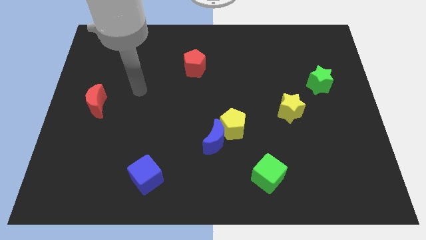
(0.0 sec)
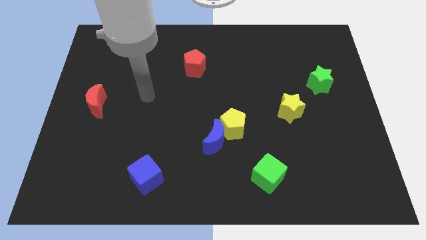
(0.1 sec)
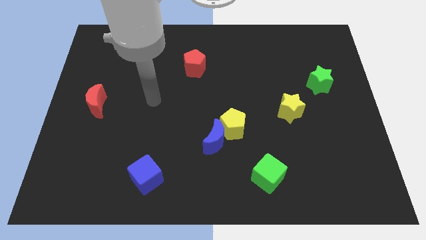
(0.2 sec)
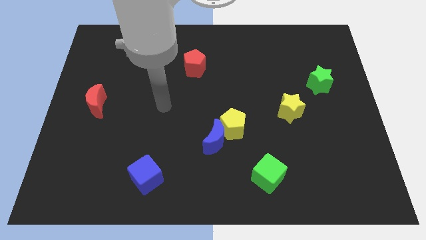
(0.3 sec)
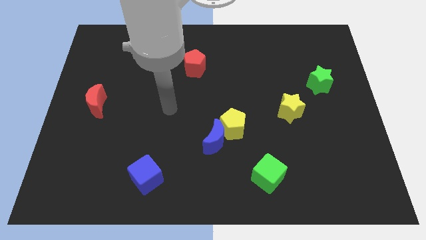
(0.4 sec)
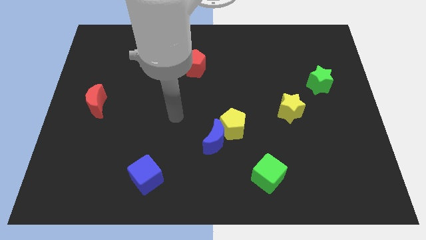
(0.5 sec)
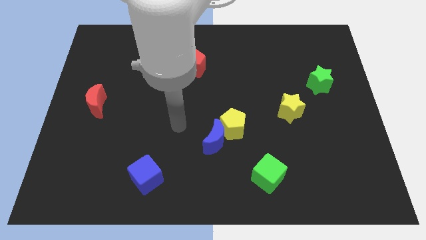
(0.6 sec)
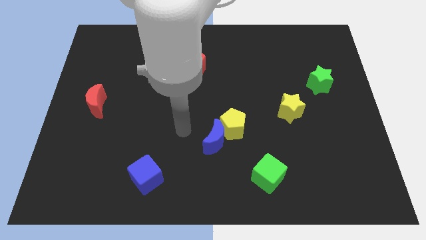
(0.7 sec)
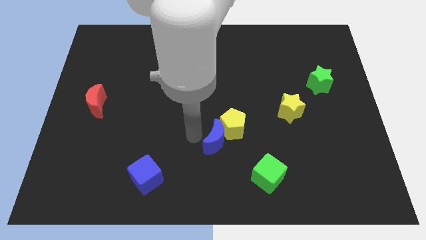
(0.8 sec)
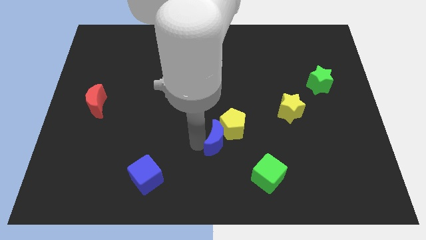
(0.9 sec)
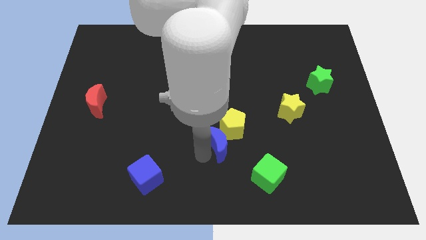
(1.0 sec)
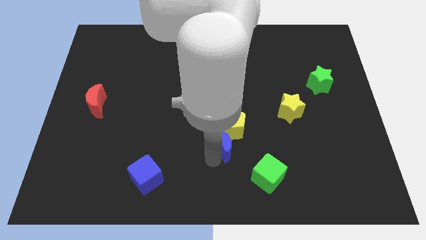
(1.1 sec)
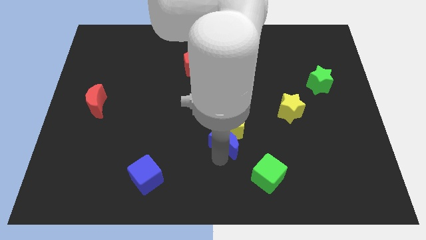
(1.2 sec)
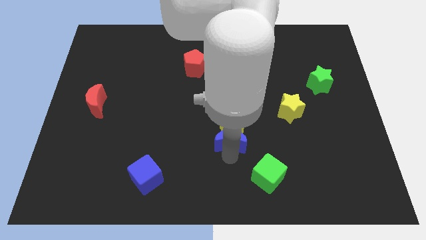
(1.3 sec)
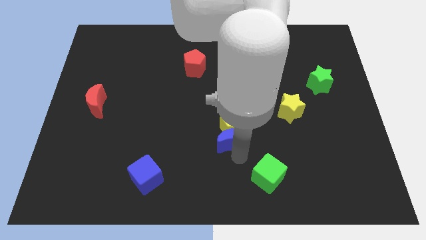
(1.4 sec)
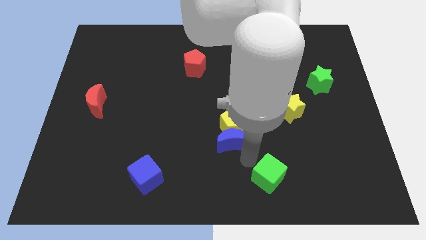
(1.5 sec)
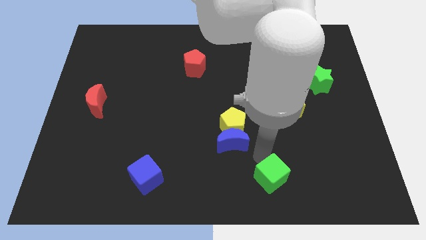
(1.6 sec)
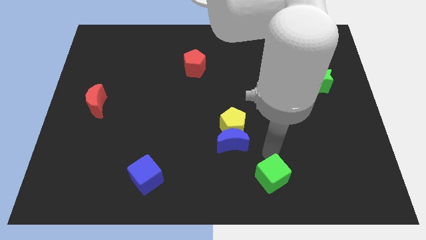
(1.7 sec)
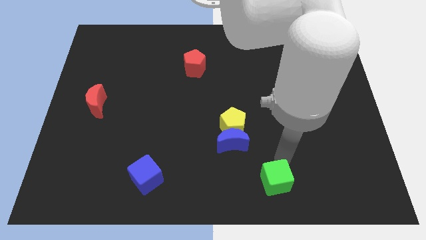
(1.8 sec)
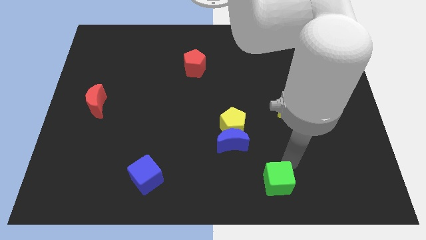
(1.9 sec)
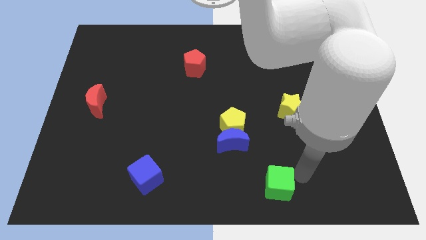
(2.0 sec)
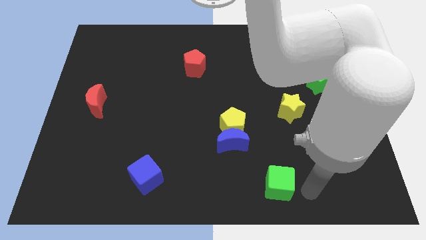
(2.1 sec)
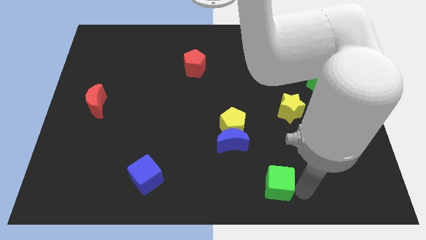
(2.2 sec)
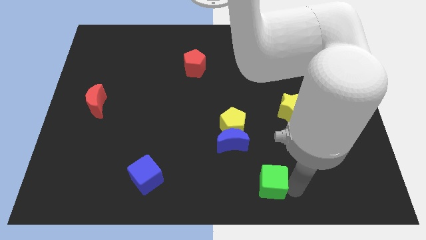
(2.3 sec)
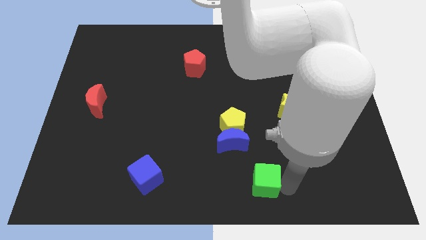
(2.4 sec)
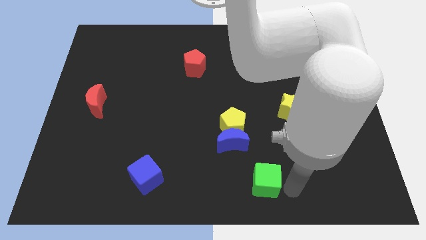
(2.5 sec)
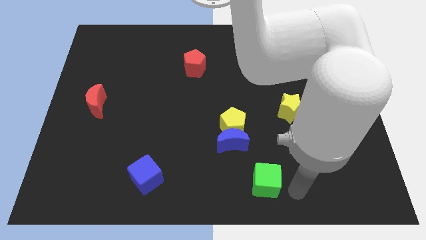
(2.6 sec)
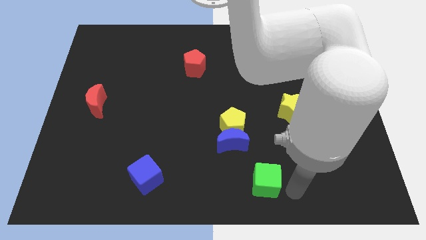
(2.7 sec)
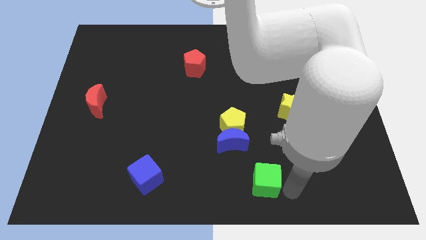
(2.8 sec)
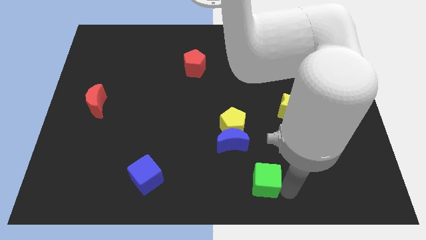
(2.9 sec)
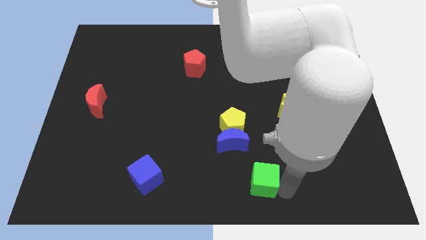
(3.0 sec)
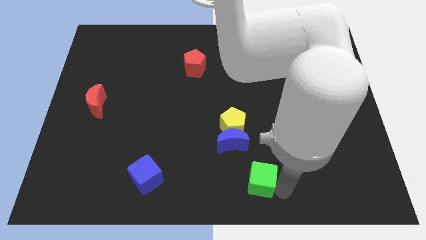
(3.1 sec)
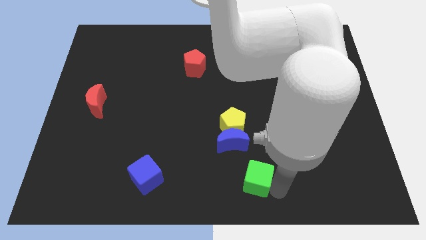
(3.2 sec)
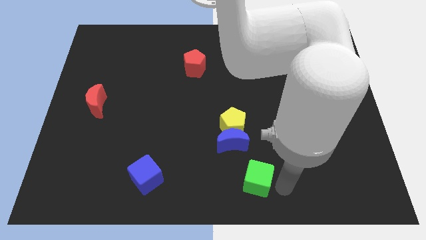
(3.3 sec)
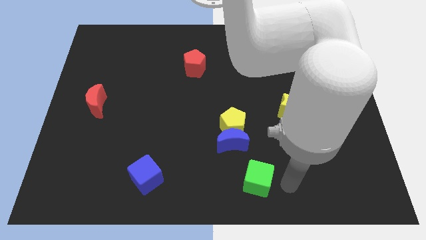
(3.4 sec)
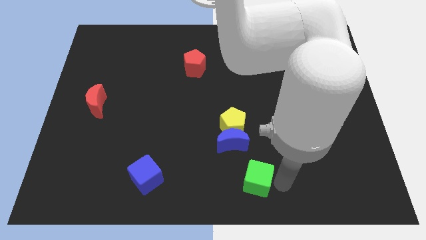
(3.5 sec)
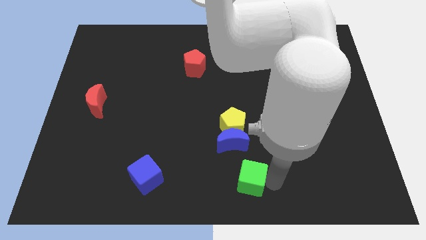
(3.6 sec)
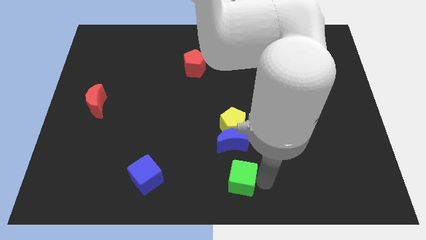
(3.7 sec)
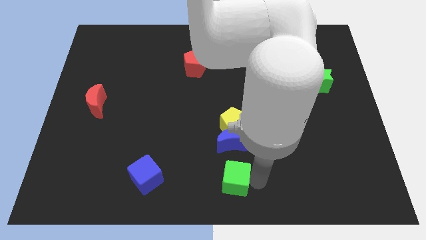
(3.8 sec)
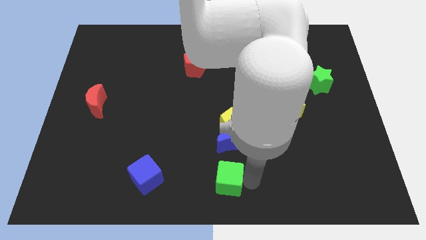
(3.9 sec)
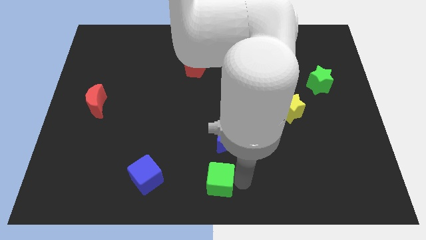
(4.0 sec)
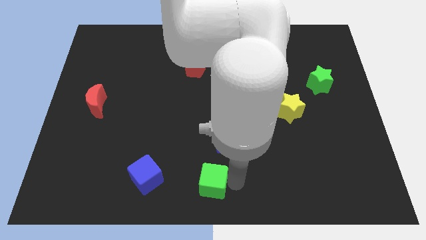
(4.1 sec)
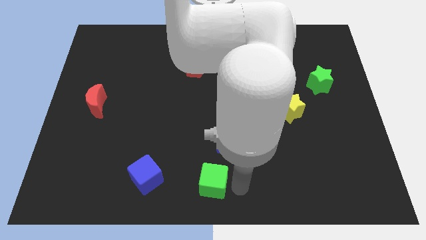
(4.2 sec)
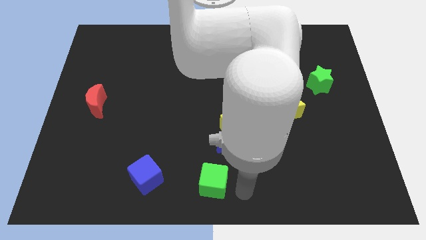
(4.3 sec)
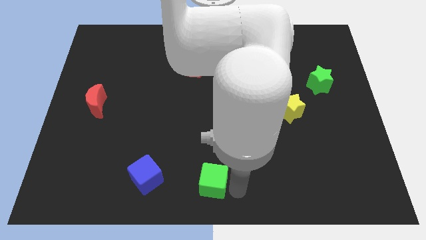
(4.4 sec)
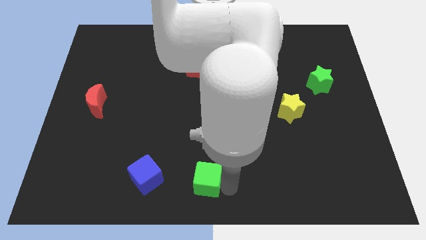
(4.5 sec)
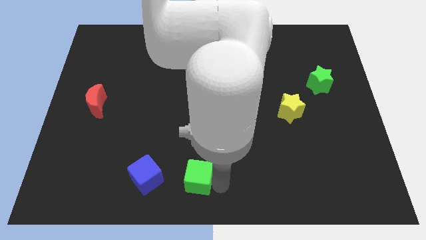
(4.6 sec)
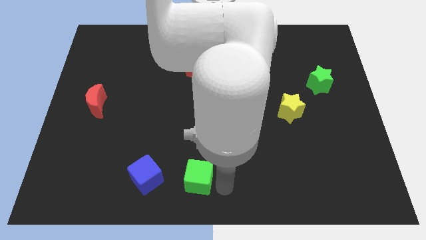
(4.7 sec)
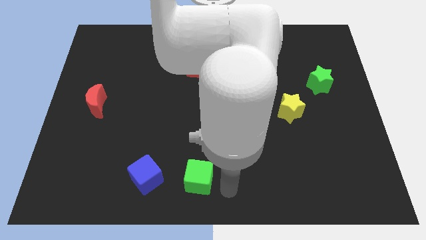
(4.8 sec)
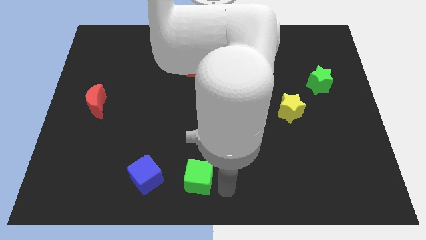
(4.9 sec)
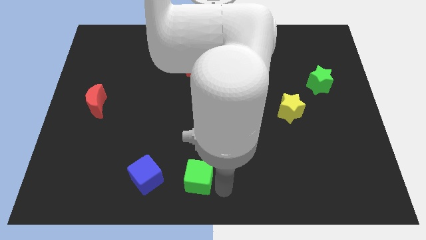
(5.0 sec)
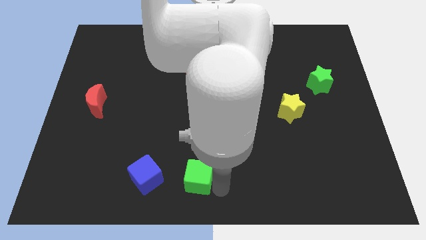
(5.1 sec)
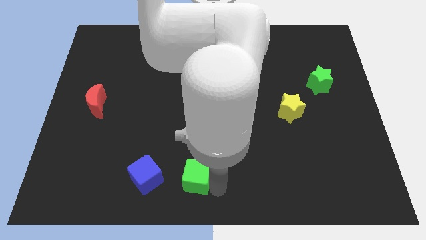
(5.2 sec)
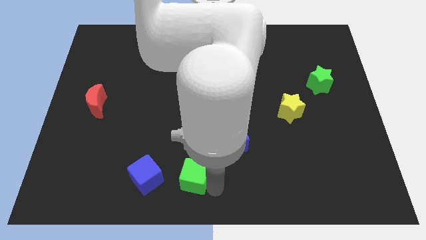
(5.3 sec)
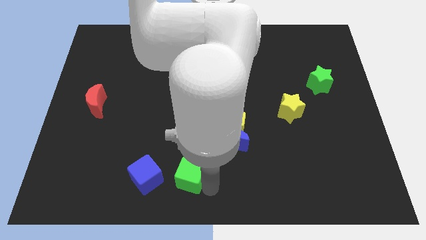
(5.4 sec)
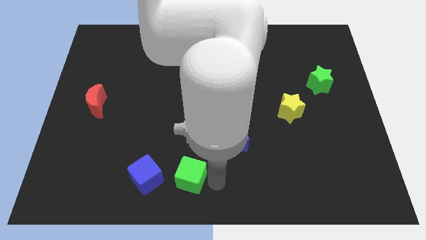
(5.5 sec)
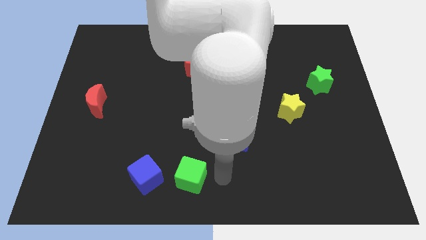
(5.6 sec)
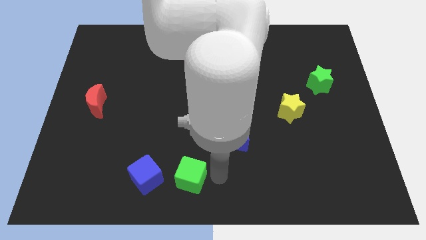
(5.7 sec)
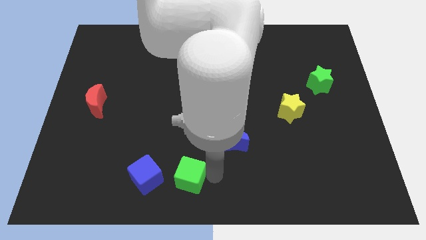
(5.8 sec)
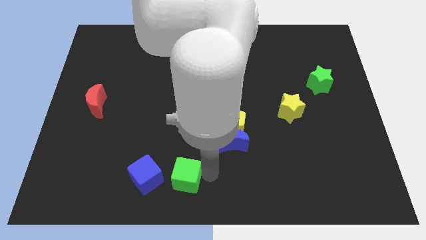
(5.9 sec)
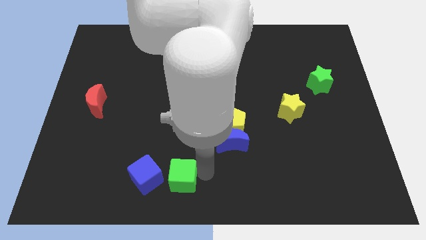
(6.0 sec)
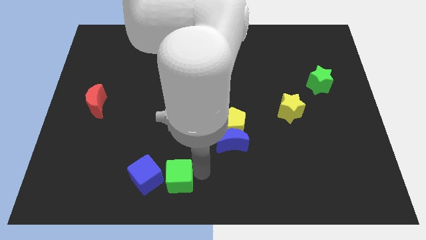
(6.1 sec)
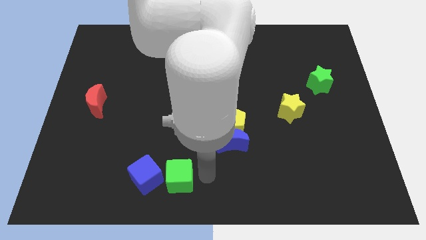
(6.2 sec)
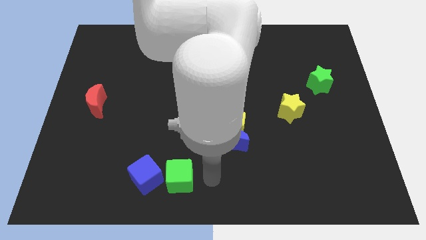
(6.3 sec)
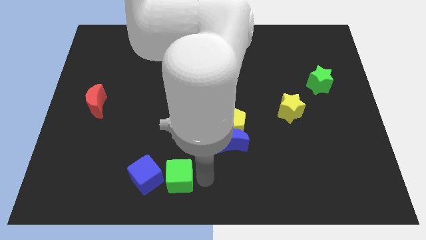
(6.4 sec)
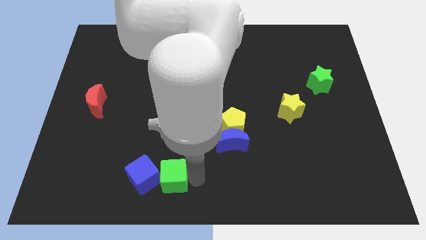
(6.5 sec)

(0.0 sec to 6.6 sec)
slide the green cube towards the blue cube

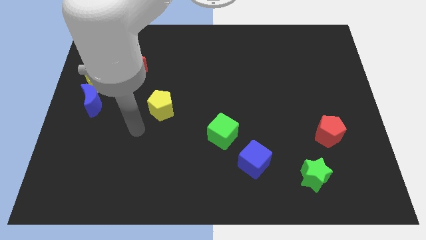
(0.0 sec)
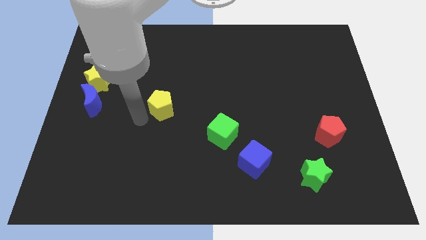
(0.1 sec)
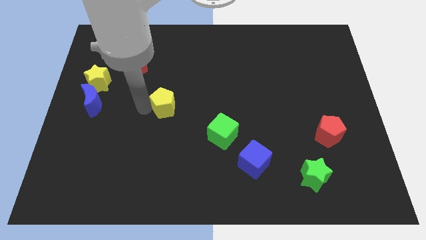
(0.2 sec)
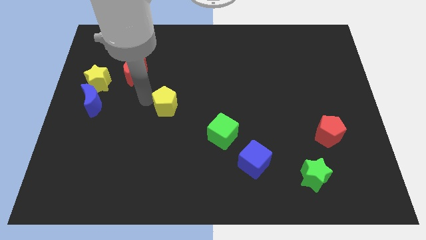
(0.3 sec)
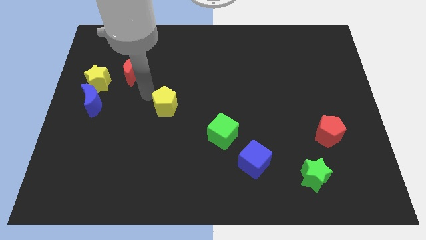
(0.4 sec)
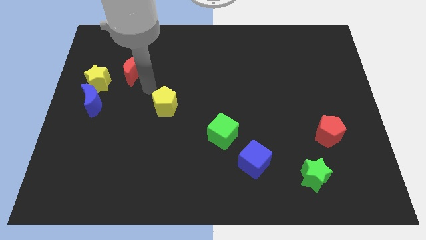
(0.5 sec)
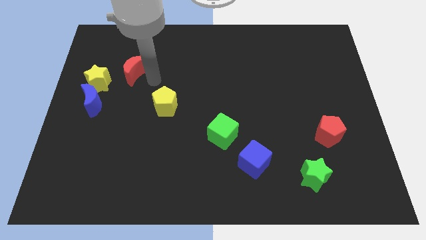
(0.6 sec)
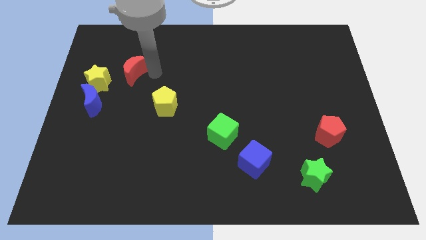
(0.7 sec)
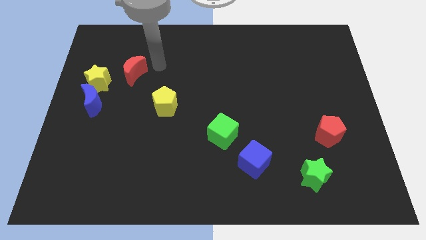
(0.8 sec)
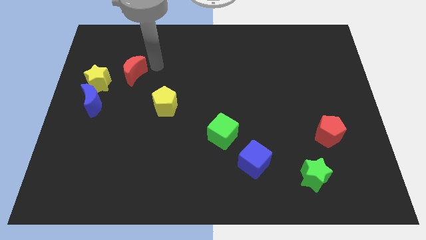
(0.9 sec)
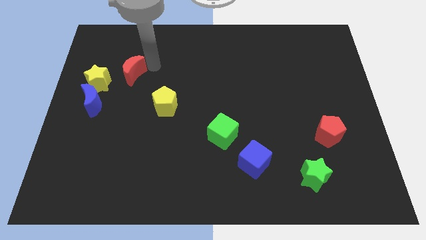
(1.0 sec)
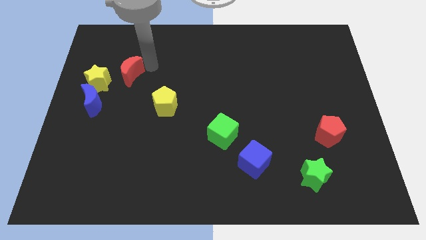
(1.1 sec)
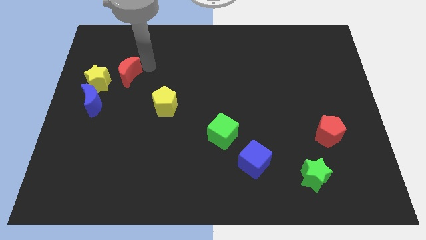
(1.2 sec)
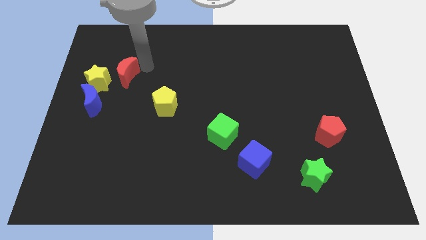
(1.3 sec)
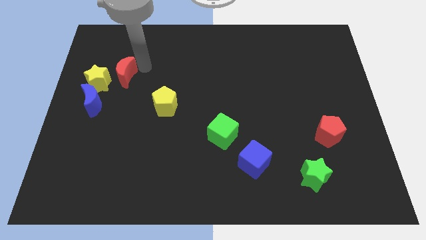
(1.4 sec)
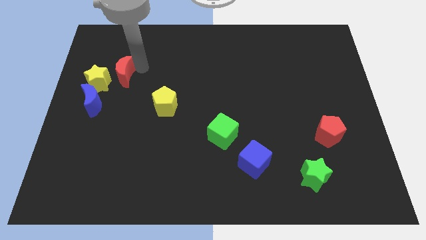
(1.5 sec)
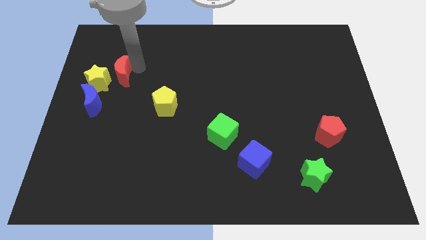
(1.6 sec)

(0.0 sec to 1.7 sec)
push the red moon close to the yellow star
